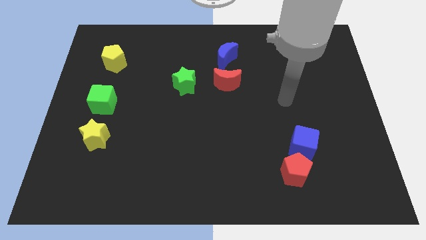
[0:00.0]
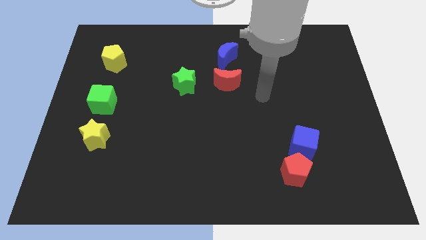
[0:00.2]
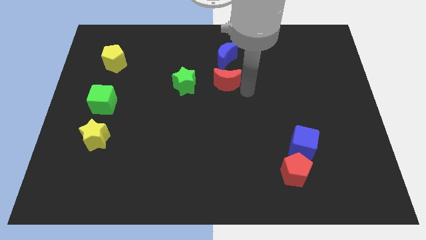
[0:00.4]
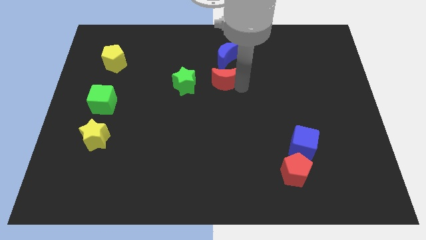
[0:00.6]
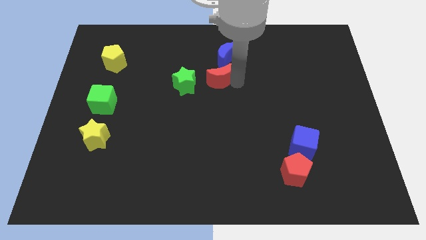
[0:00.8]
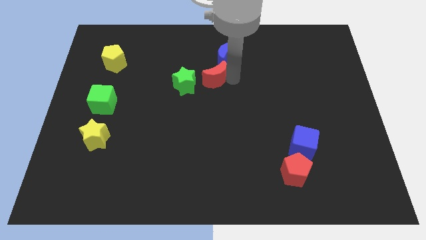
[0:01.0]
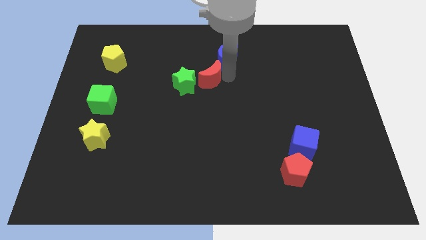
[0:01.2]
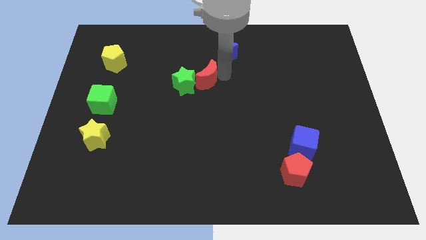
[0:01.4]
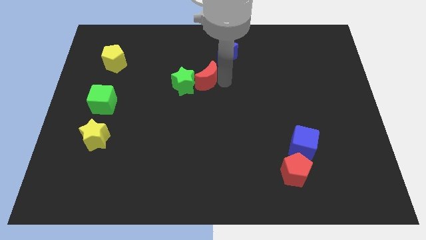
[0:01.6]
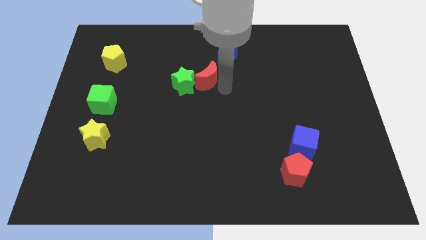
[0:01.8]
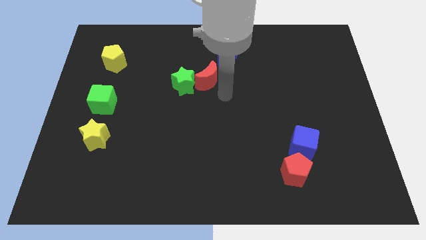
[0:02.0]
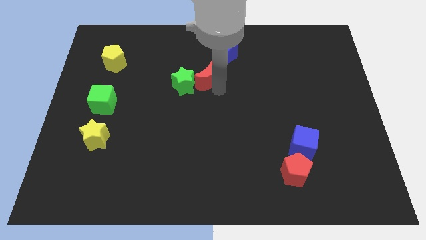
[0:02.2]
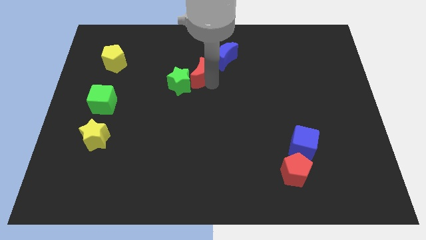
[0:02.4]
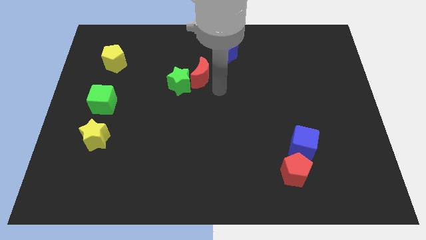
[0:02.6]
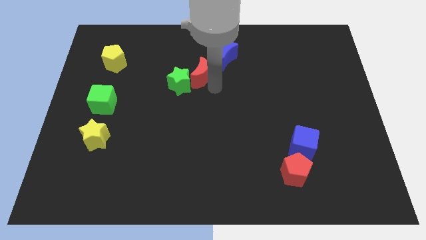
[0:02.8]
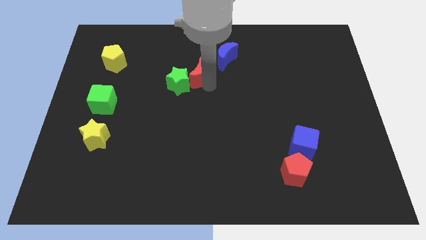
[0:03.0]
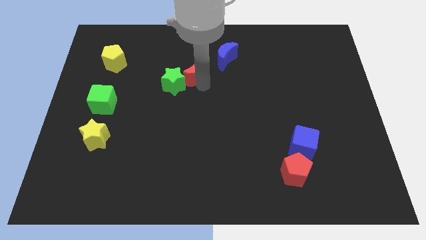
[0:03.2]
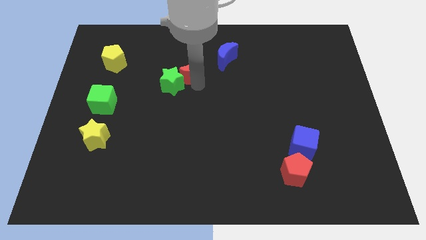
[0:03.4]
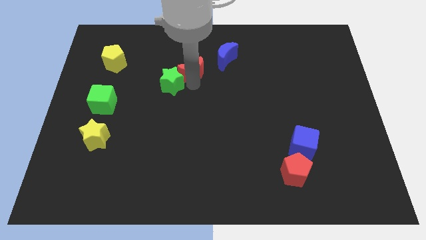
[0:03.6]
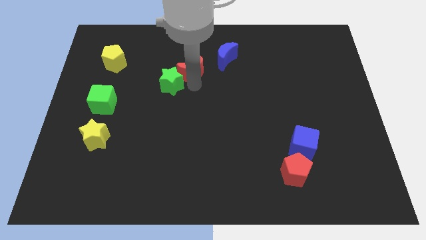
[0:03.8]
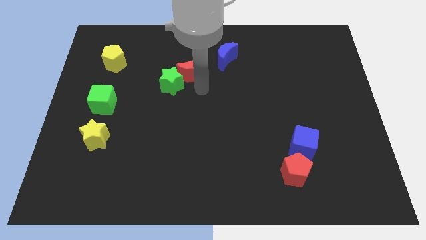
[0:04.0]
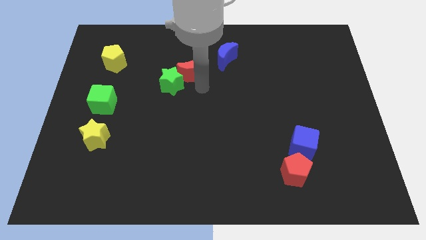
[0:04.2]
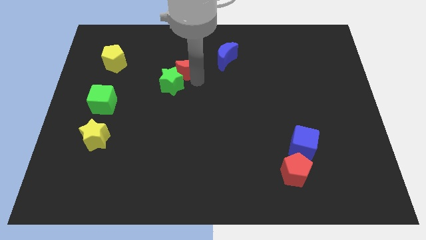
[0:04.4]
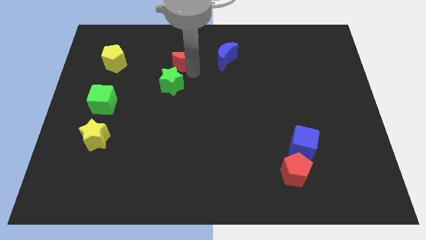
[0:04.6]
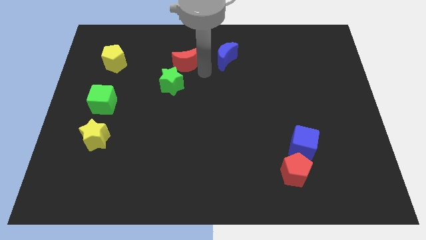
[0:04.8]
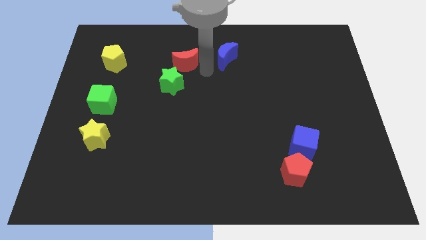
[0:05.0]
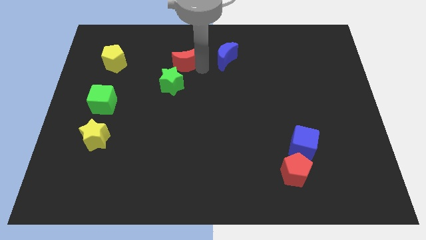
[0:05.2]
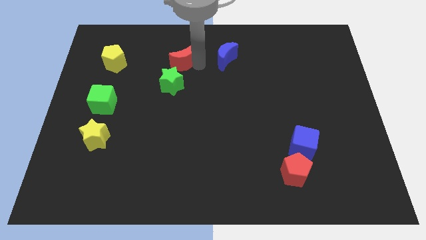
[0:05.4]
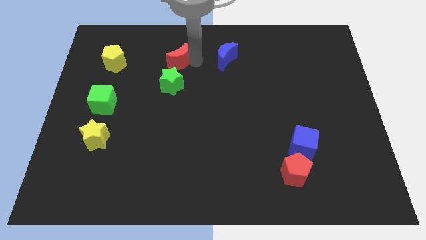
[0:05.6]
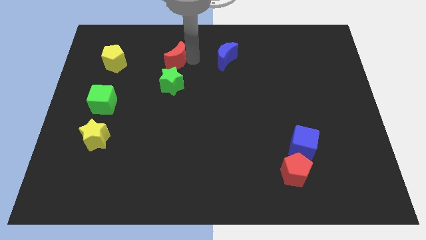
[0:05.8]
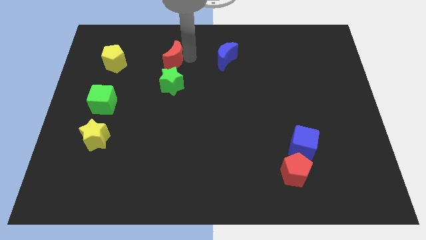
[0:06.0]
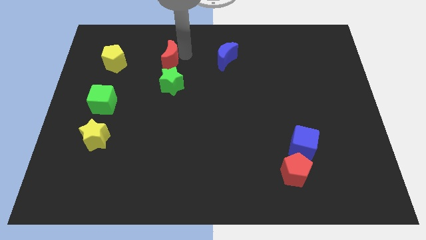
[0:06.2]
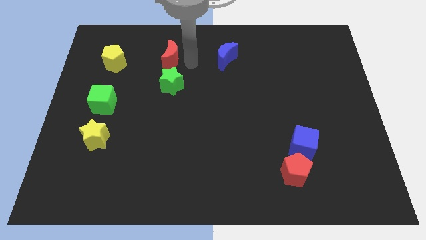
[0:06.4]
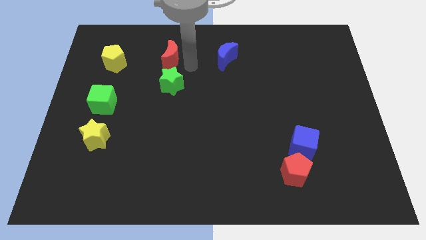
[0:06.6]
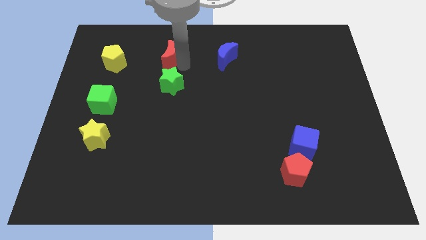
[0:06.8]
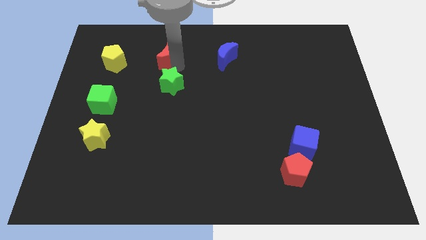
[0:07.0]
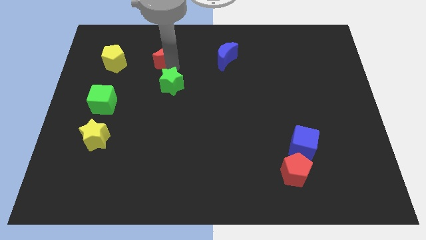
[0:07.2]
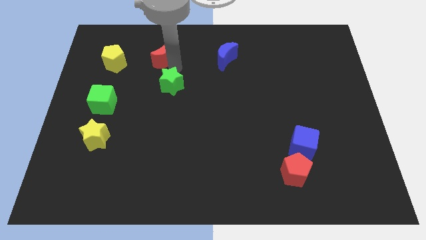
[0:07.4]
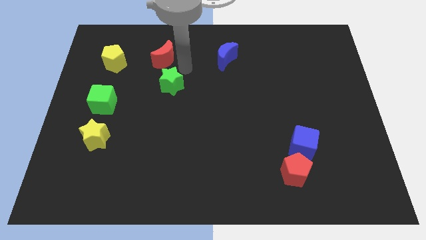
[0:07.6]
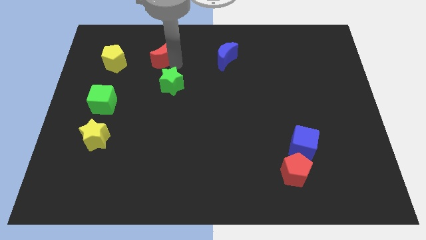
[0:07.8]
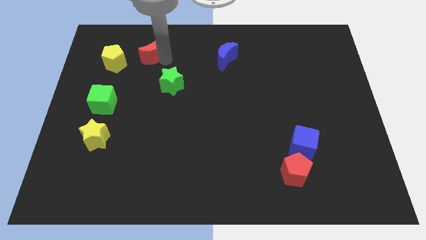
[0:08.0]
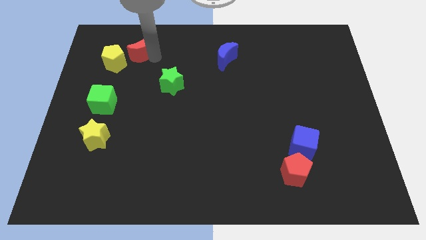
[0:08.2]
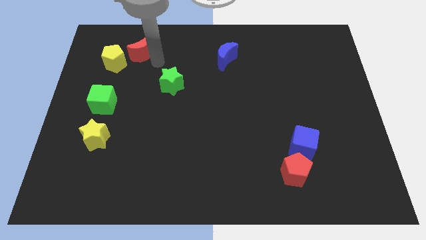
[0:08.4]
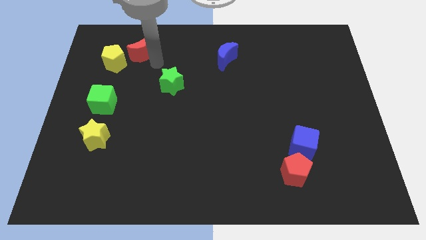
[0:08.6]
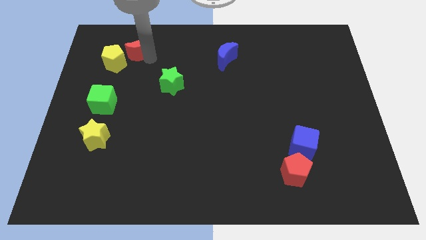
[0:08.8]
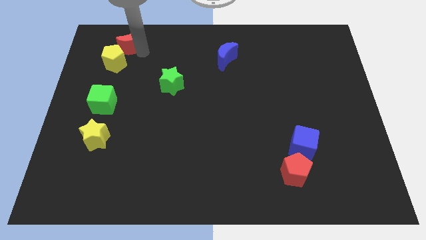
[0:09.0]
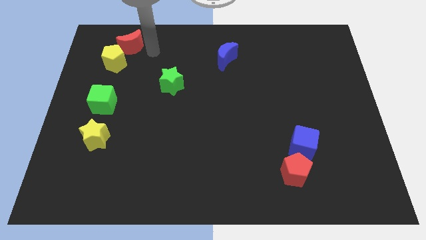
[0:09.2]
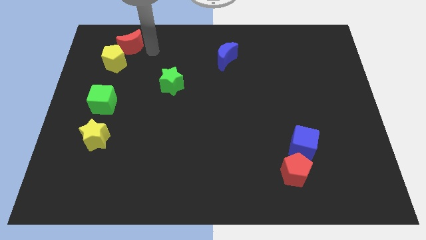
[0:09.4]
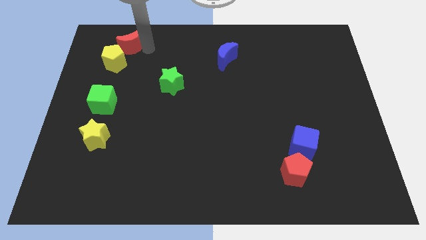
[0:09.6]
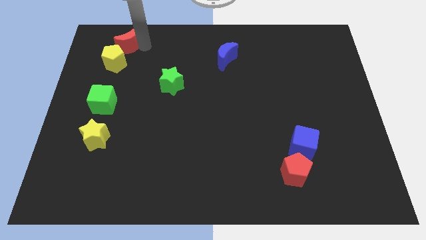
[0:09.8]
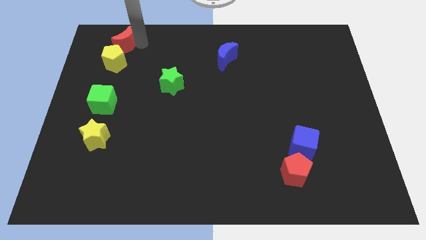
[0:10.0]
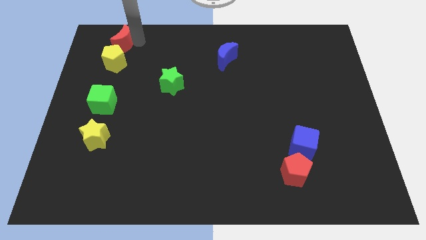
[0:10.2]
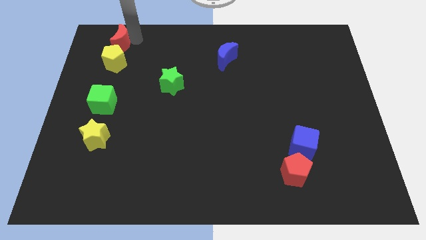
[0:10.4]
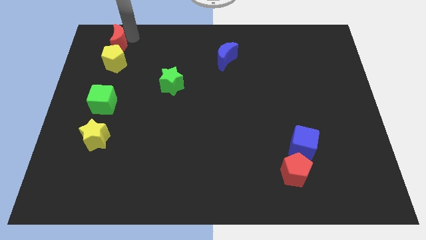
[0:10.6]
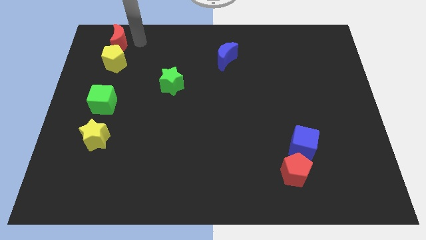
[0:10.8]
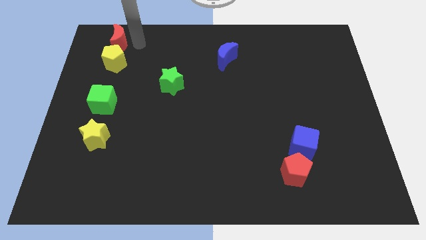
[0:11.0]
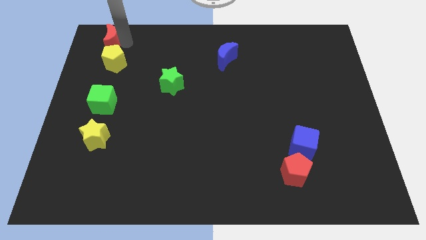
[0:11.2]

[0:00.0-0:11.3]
move the red moon to the top left corner
